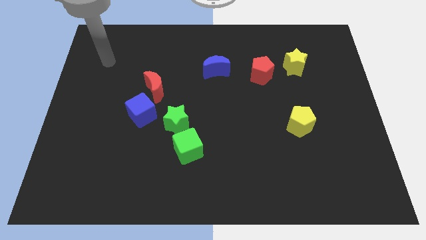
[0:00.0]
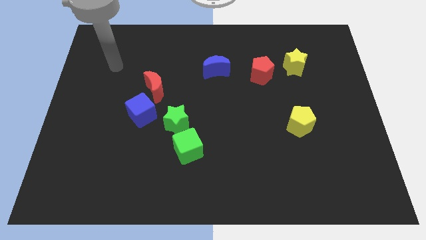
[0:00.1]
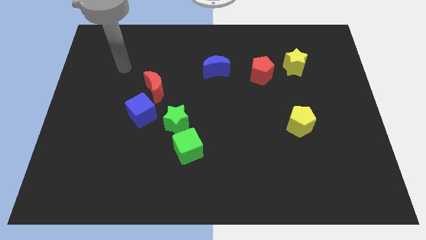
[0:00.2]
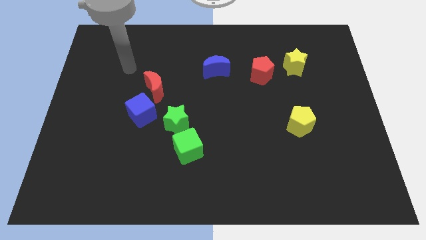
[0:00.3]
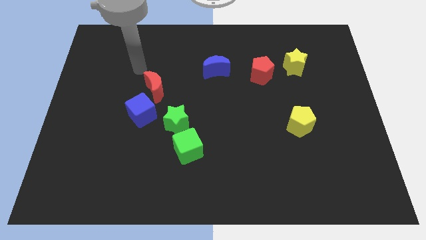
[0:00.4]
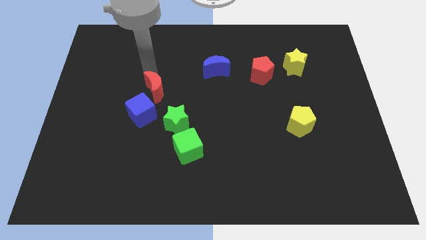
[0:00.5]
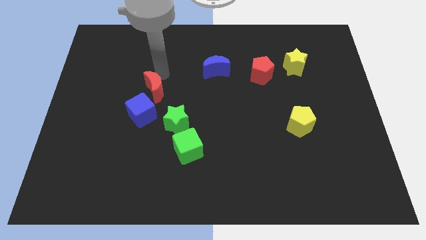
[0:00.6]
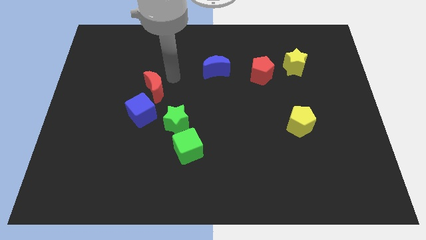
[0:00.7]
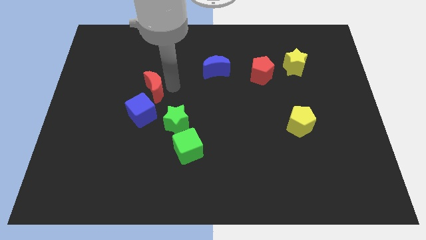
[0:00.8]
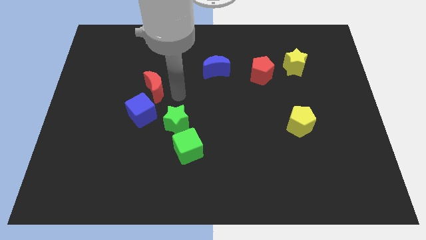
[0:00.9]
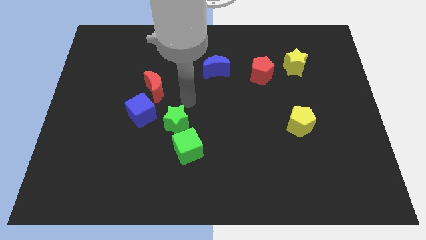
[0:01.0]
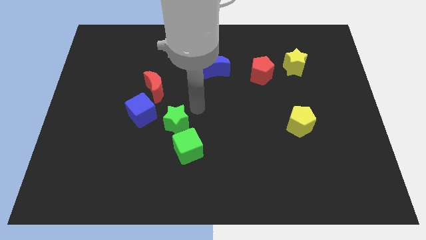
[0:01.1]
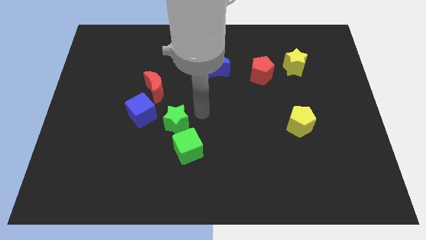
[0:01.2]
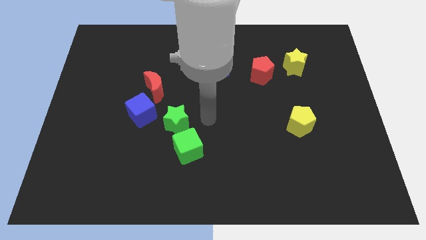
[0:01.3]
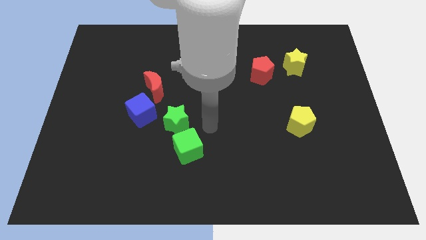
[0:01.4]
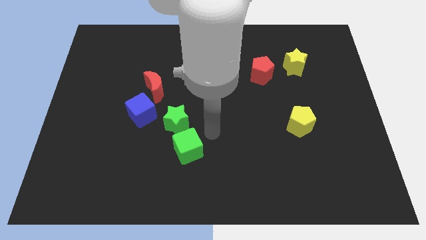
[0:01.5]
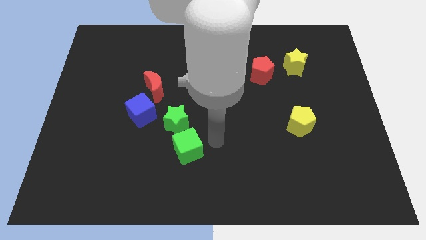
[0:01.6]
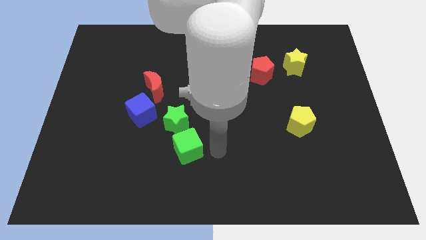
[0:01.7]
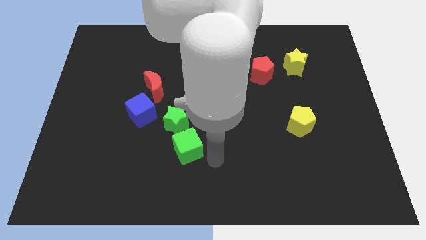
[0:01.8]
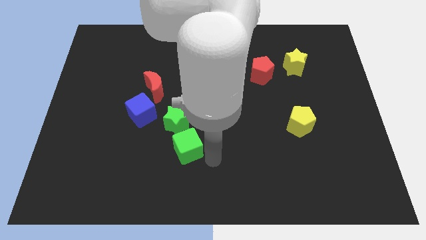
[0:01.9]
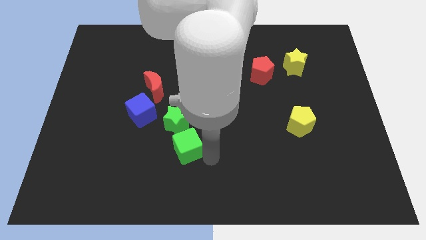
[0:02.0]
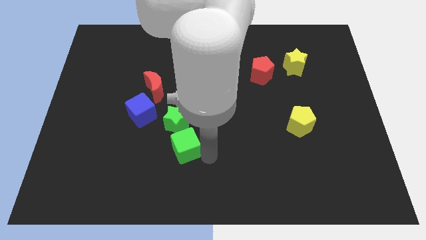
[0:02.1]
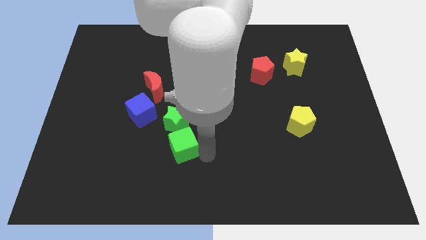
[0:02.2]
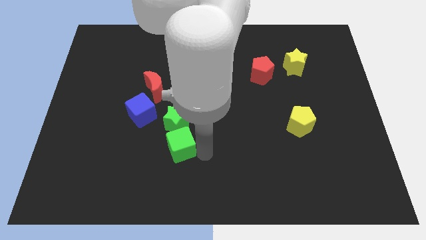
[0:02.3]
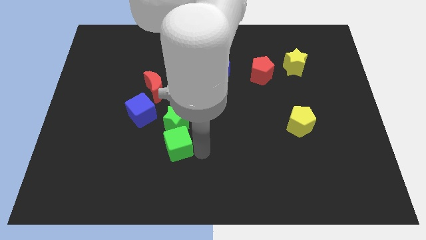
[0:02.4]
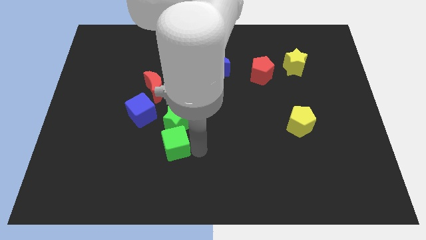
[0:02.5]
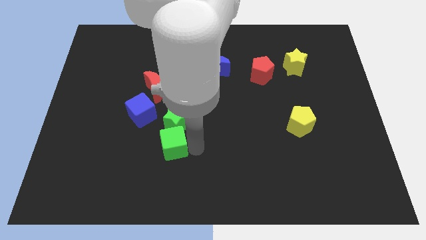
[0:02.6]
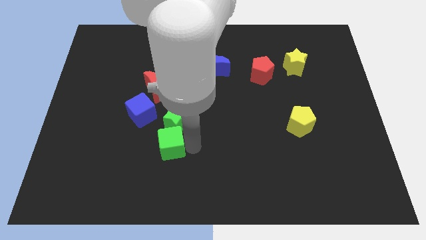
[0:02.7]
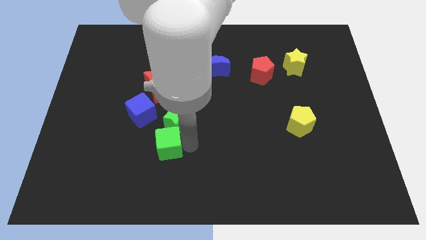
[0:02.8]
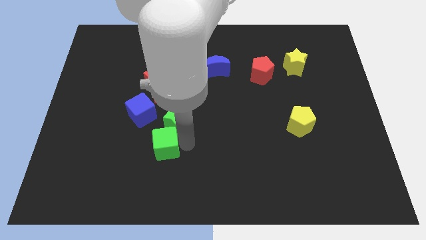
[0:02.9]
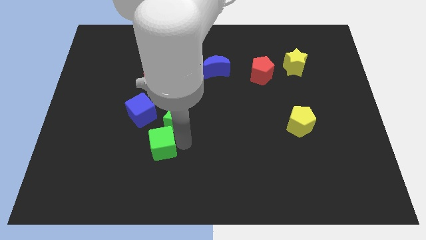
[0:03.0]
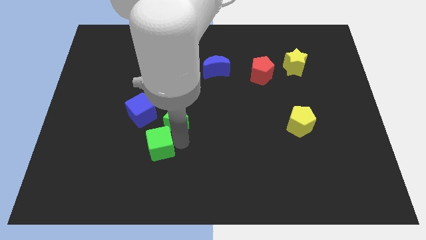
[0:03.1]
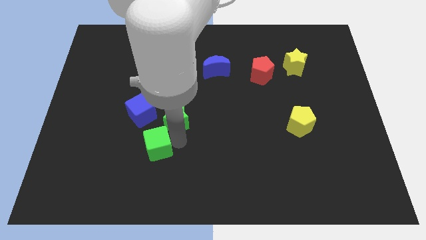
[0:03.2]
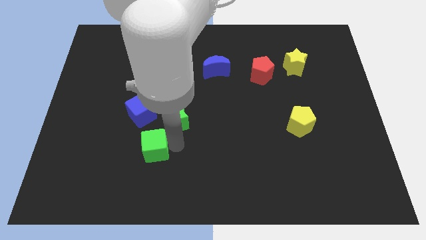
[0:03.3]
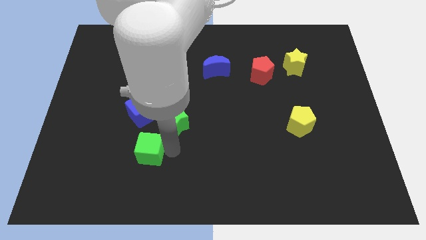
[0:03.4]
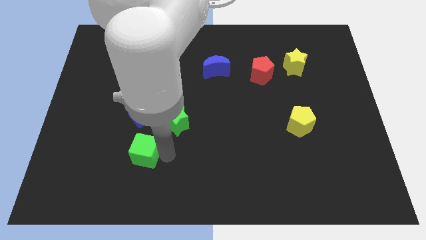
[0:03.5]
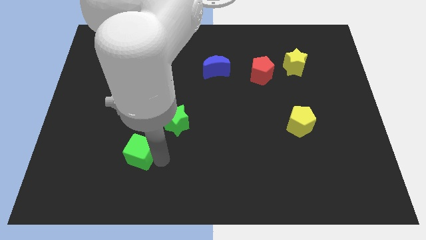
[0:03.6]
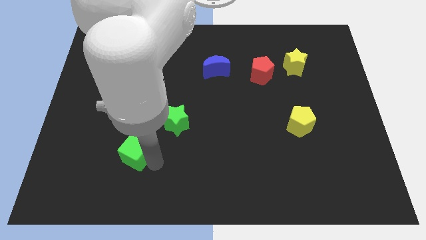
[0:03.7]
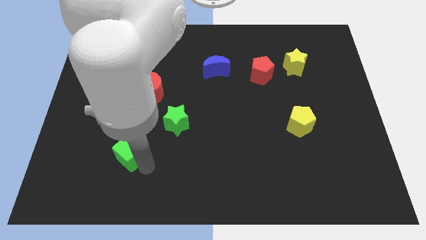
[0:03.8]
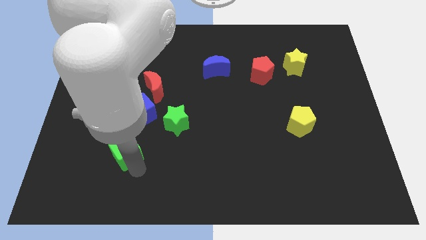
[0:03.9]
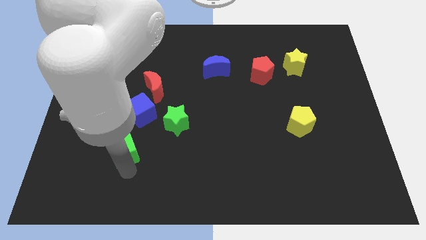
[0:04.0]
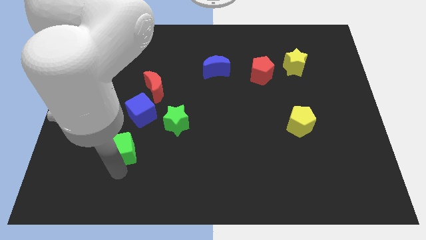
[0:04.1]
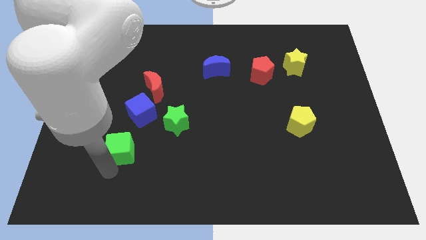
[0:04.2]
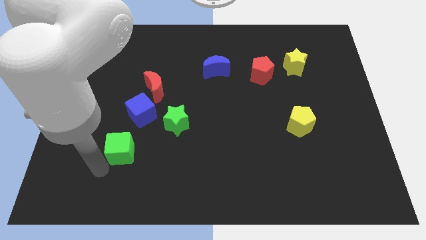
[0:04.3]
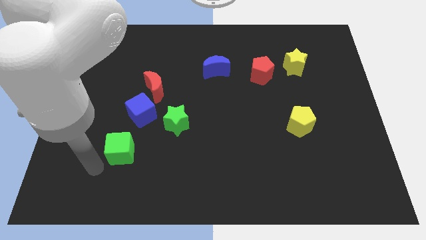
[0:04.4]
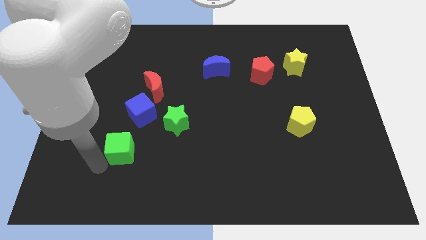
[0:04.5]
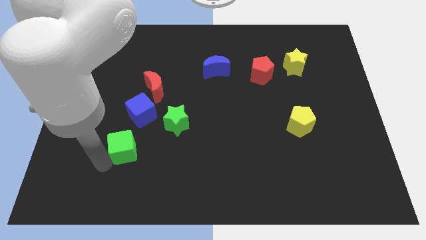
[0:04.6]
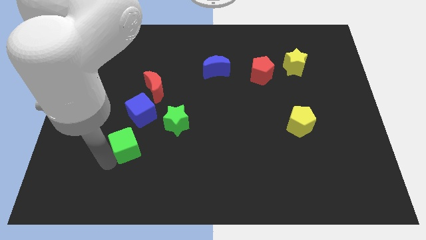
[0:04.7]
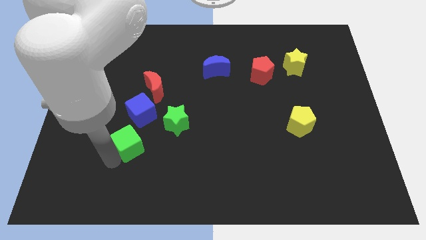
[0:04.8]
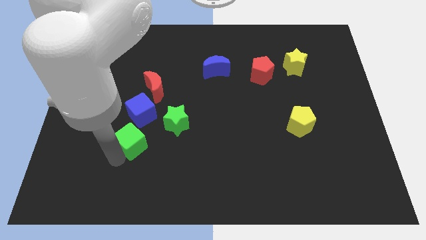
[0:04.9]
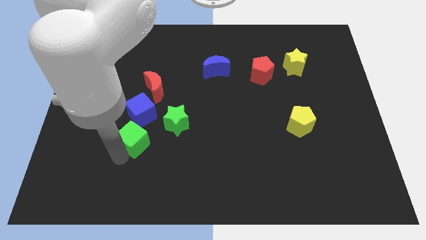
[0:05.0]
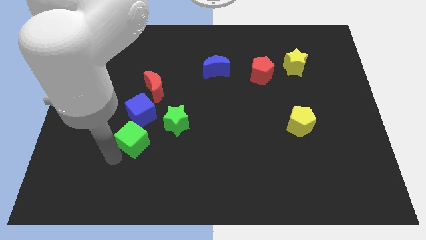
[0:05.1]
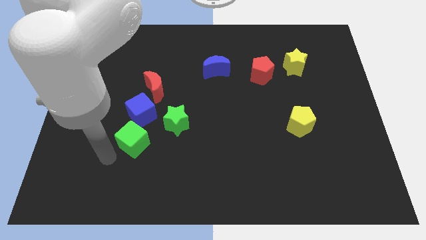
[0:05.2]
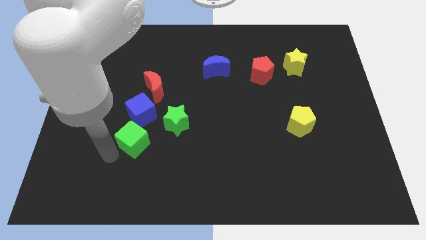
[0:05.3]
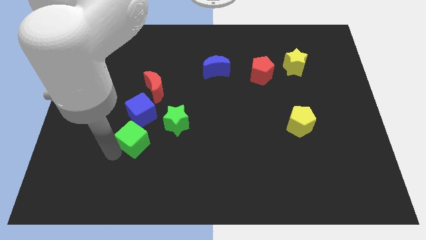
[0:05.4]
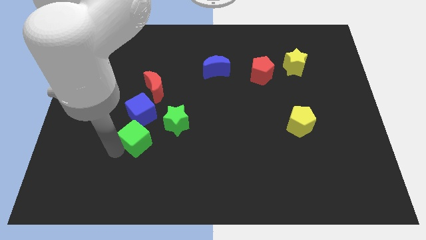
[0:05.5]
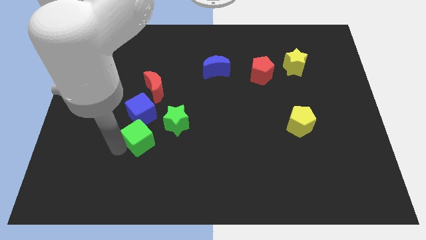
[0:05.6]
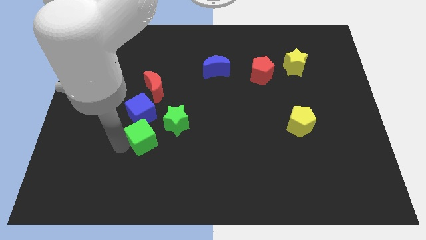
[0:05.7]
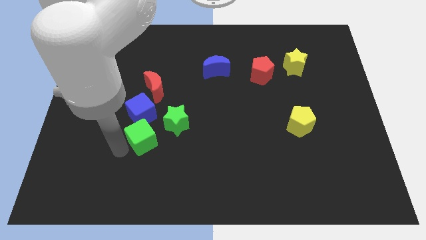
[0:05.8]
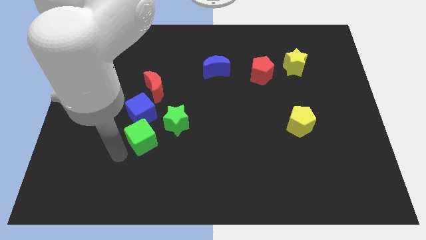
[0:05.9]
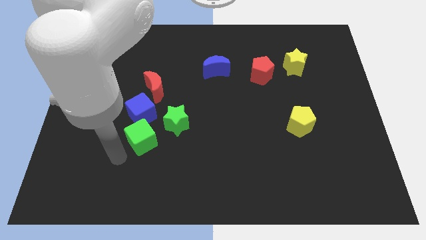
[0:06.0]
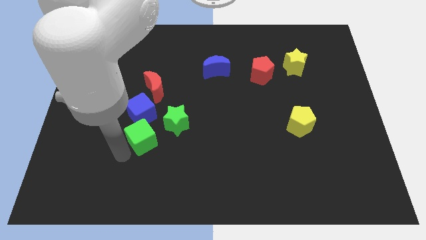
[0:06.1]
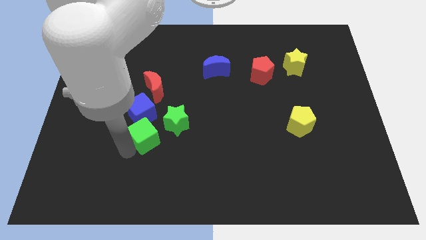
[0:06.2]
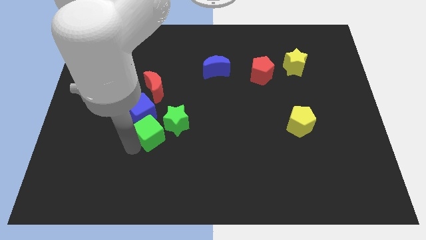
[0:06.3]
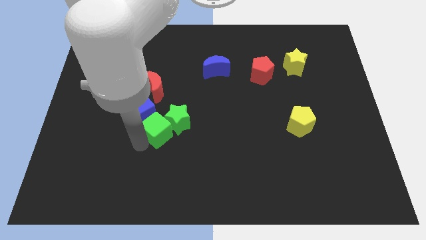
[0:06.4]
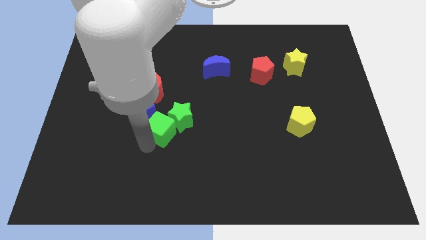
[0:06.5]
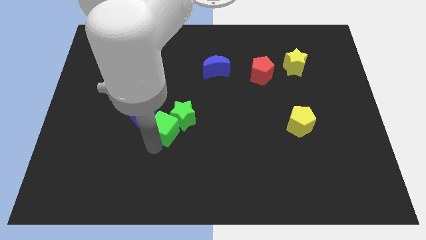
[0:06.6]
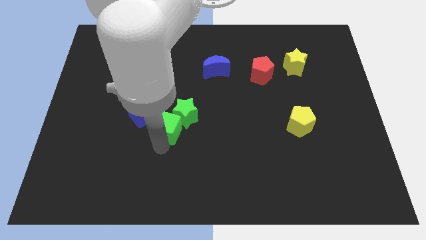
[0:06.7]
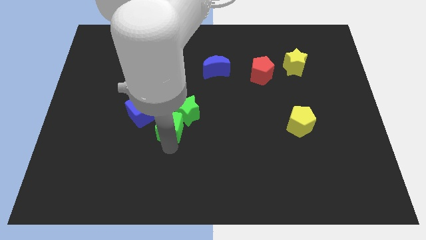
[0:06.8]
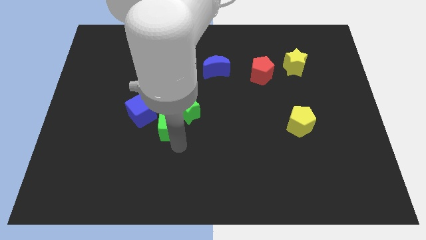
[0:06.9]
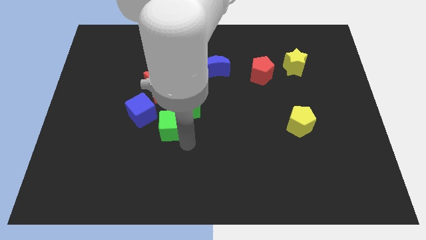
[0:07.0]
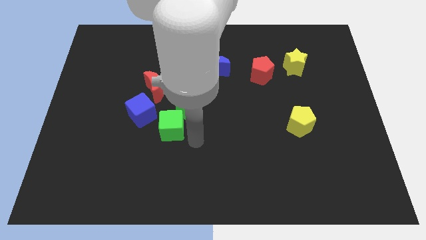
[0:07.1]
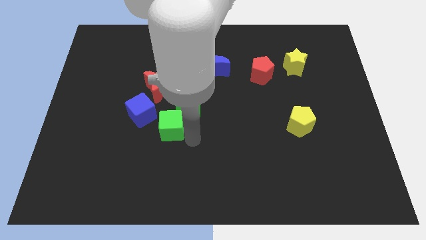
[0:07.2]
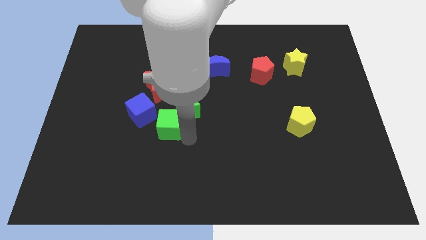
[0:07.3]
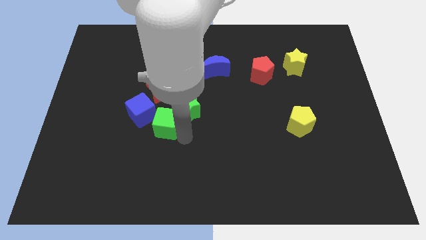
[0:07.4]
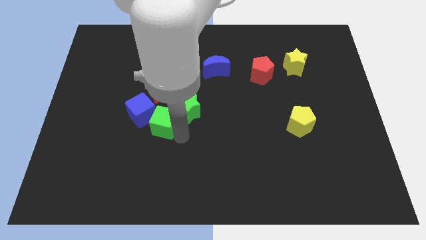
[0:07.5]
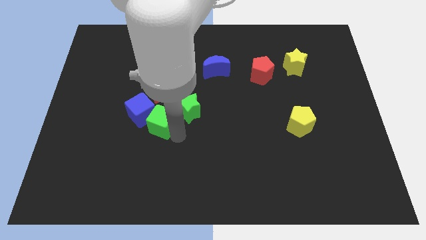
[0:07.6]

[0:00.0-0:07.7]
slide the green cube close to the blue cube
